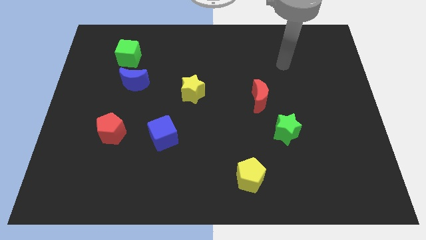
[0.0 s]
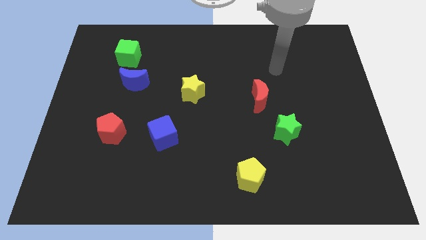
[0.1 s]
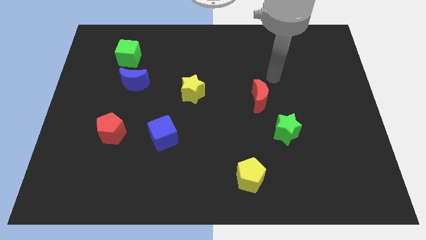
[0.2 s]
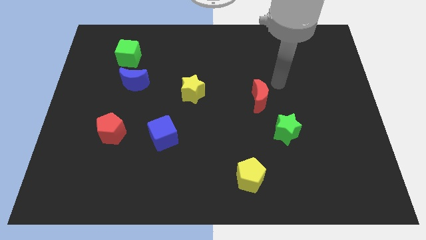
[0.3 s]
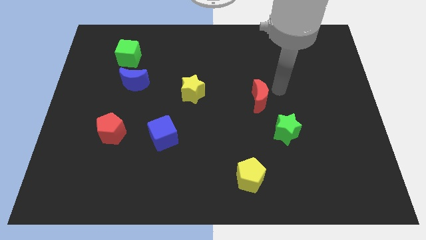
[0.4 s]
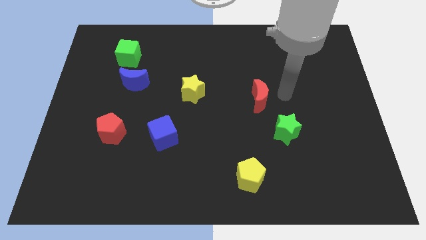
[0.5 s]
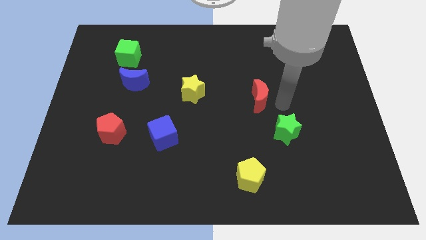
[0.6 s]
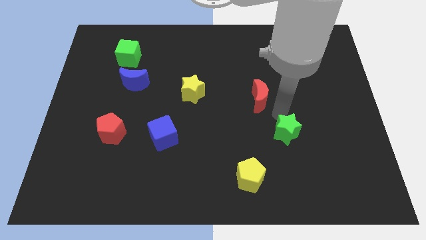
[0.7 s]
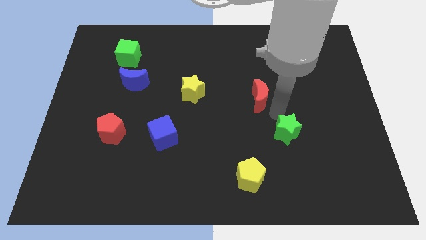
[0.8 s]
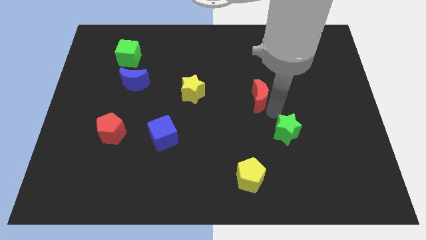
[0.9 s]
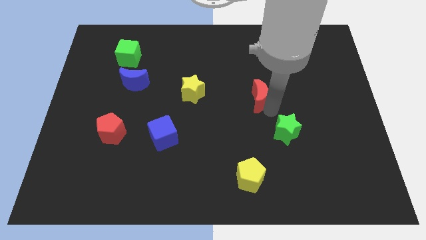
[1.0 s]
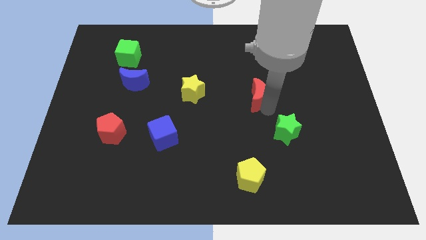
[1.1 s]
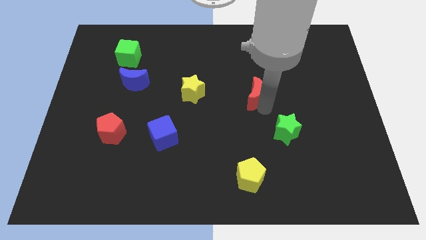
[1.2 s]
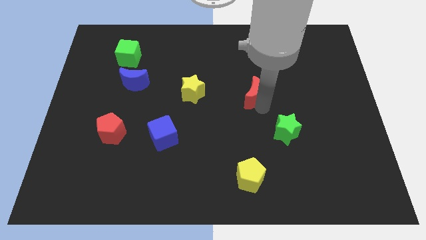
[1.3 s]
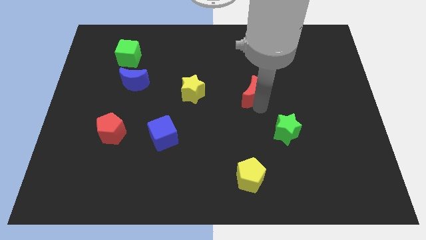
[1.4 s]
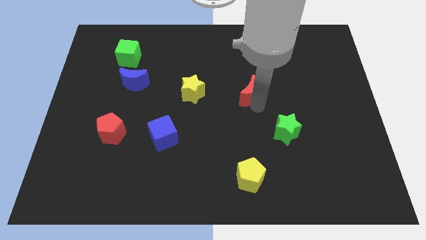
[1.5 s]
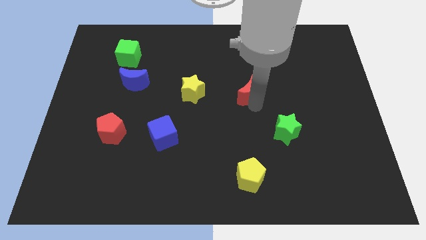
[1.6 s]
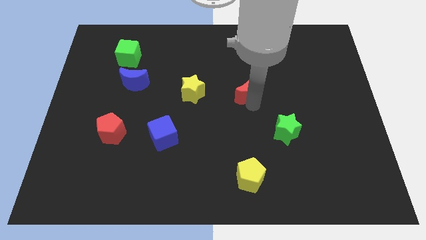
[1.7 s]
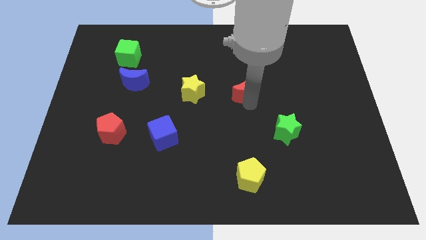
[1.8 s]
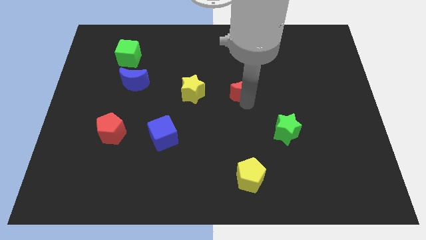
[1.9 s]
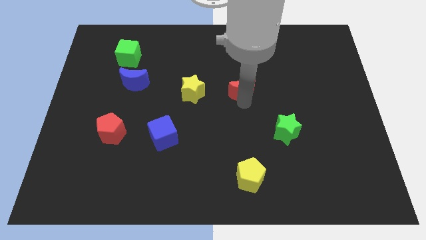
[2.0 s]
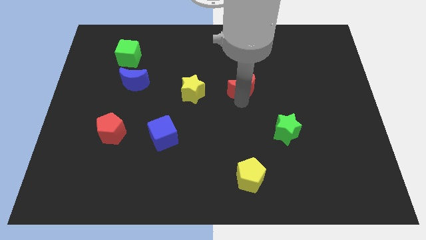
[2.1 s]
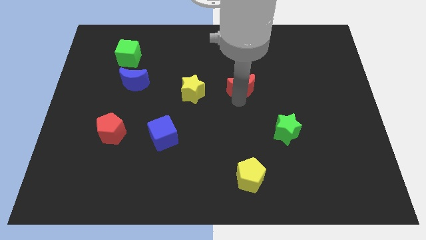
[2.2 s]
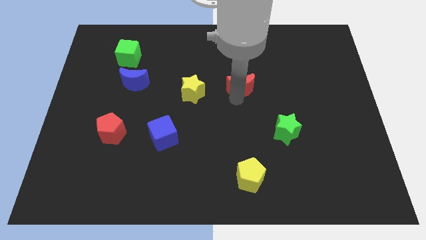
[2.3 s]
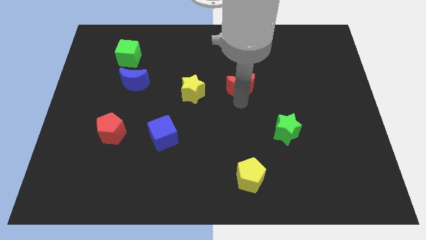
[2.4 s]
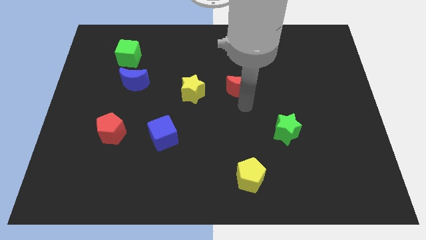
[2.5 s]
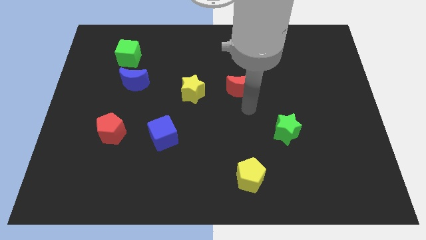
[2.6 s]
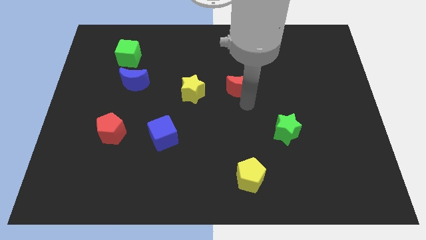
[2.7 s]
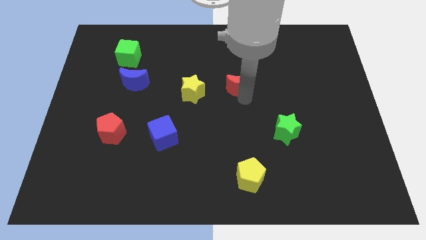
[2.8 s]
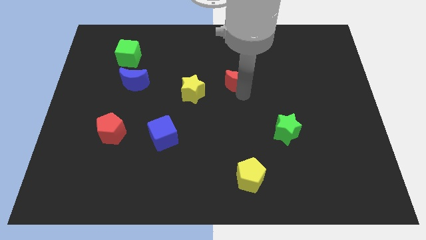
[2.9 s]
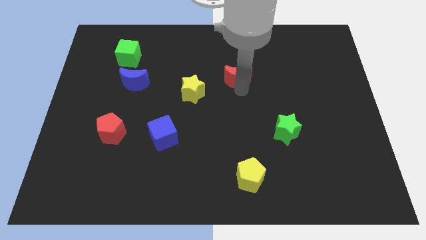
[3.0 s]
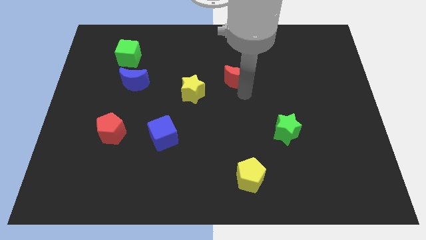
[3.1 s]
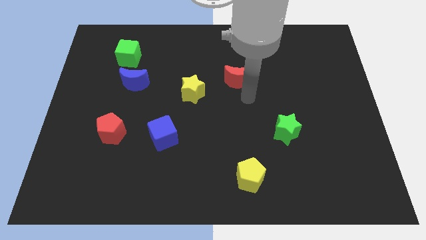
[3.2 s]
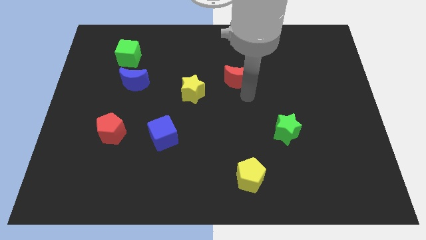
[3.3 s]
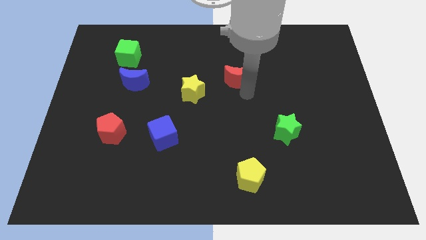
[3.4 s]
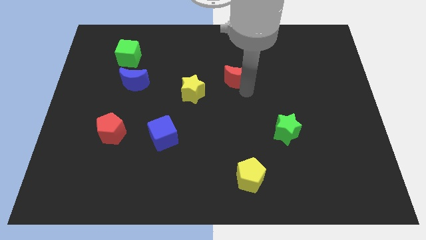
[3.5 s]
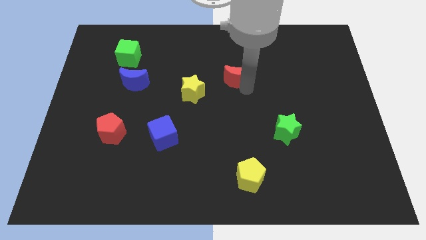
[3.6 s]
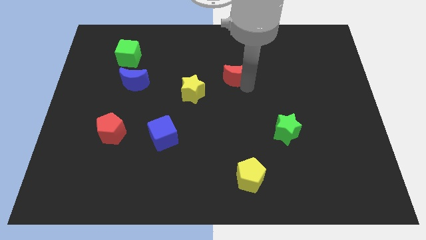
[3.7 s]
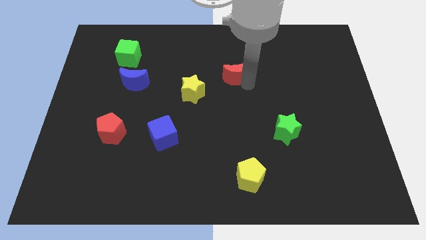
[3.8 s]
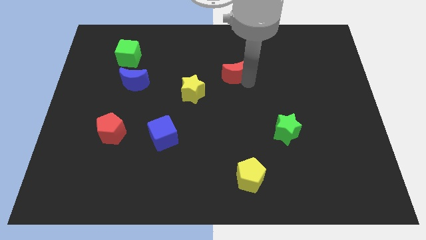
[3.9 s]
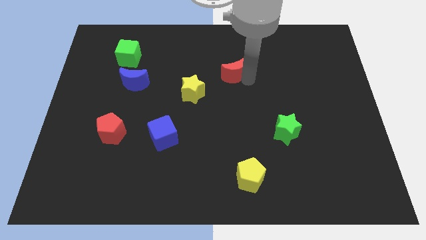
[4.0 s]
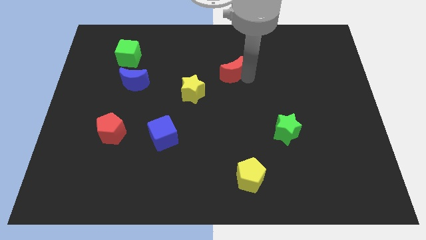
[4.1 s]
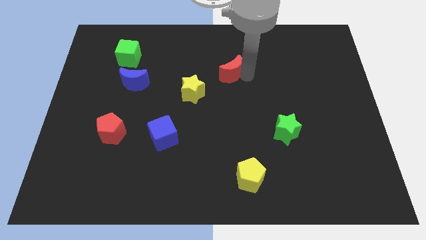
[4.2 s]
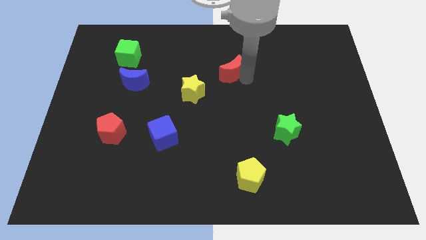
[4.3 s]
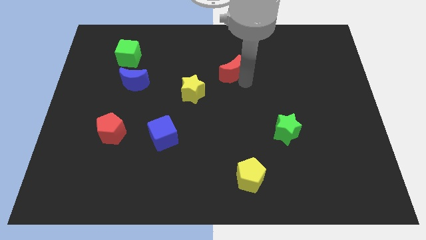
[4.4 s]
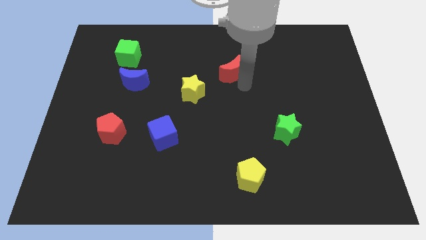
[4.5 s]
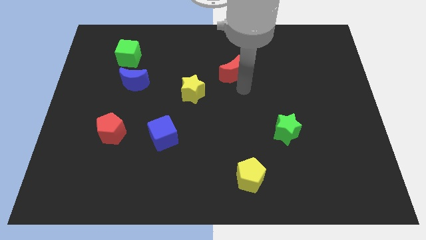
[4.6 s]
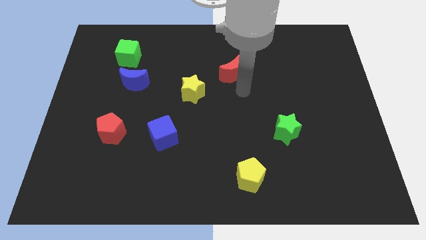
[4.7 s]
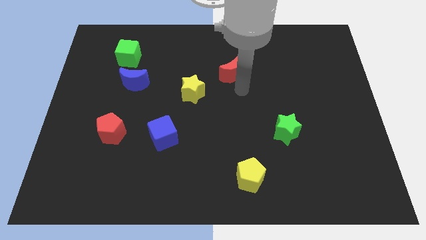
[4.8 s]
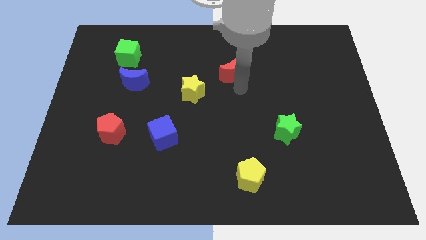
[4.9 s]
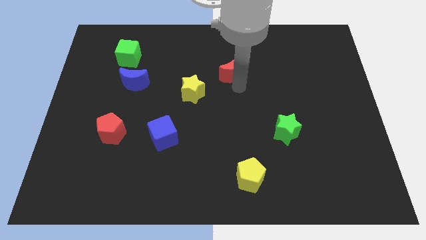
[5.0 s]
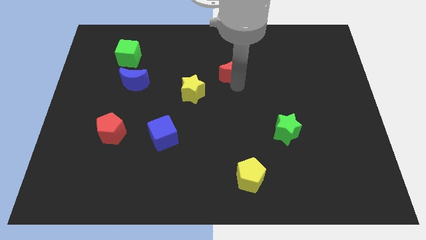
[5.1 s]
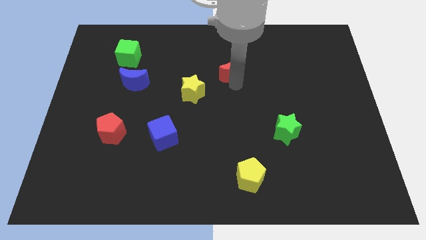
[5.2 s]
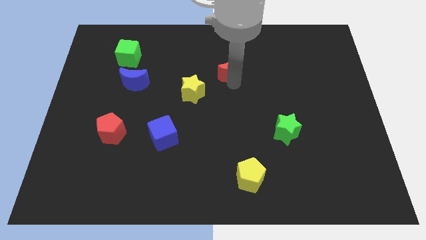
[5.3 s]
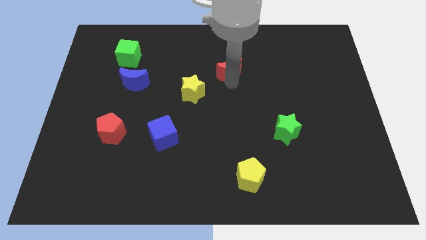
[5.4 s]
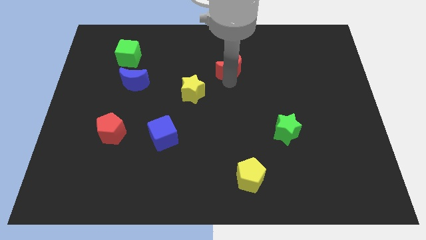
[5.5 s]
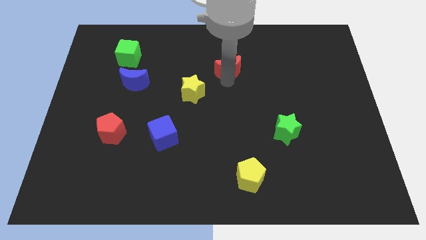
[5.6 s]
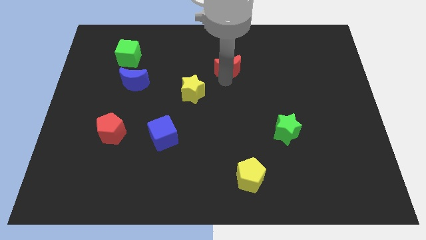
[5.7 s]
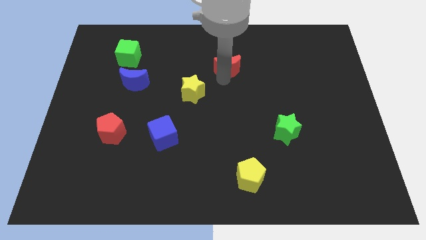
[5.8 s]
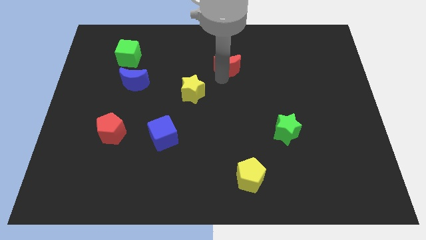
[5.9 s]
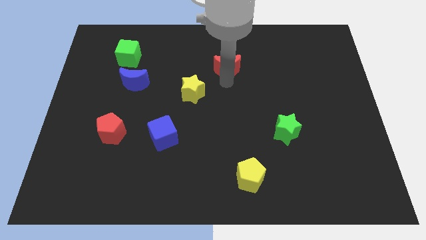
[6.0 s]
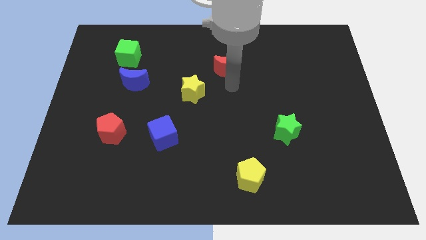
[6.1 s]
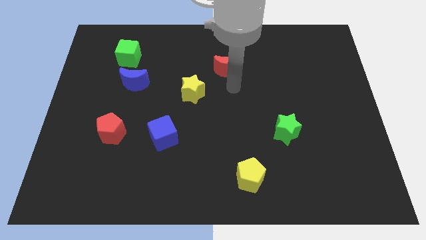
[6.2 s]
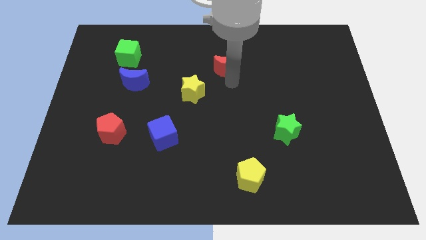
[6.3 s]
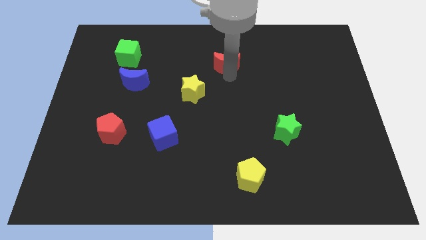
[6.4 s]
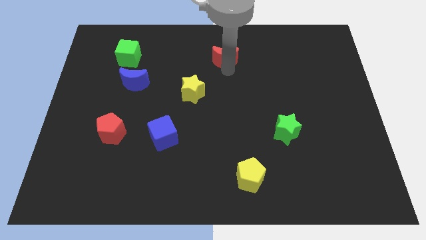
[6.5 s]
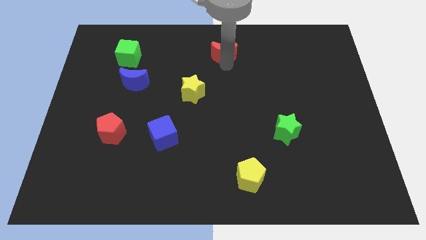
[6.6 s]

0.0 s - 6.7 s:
move the red moon to the top
